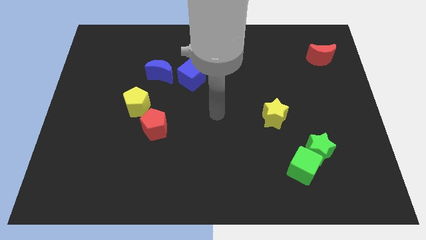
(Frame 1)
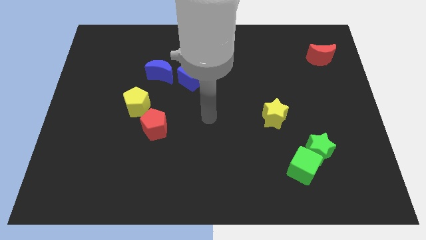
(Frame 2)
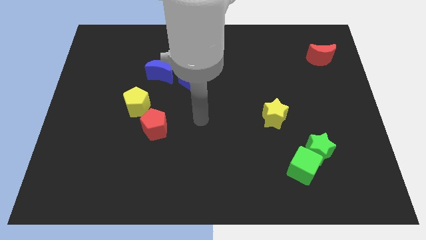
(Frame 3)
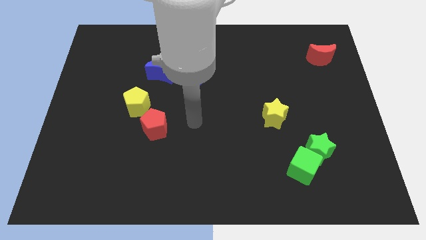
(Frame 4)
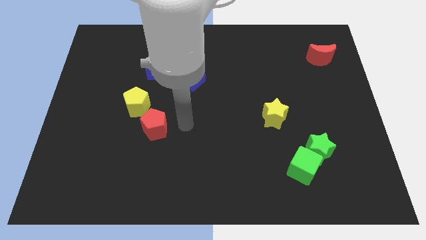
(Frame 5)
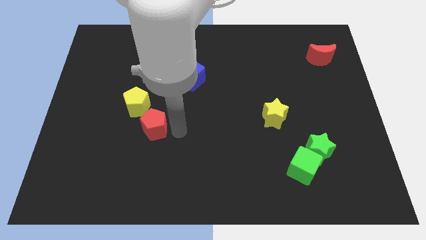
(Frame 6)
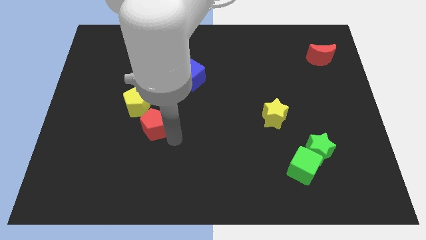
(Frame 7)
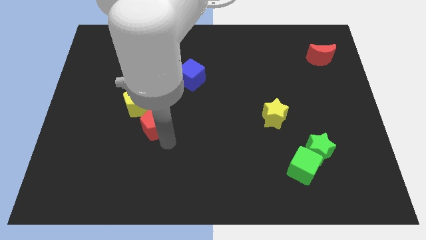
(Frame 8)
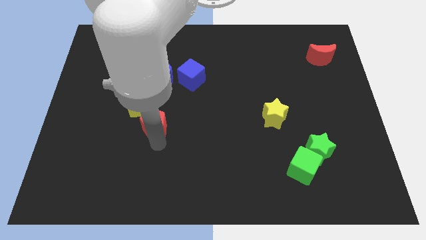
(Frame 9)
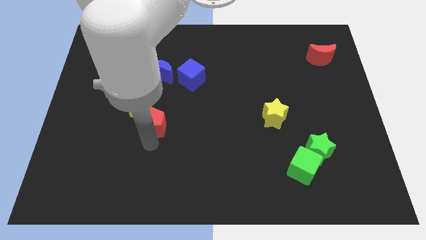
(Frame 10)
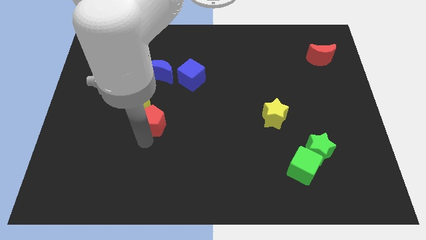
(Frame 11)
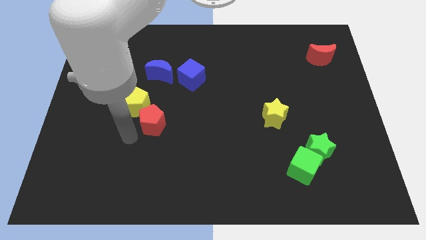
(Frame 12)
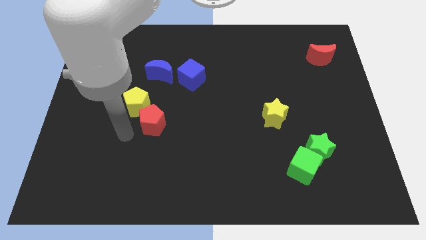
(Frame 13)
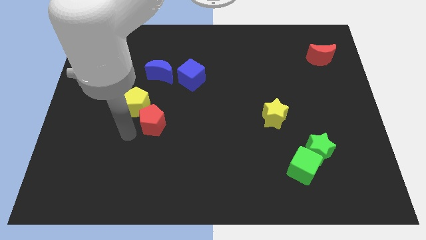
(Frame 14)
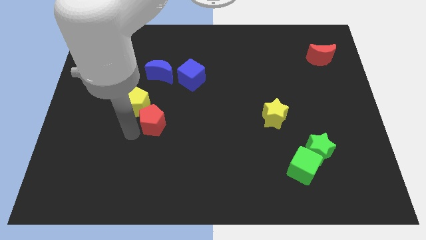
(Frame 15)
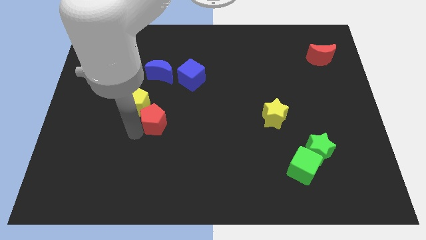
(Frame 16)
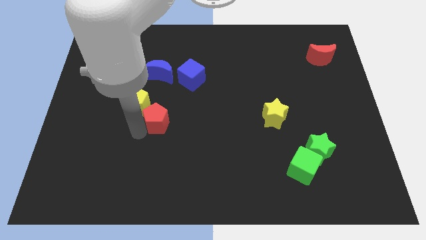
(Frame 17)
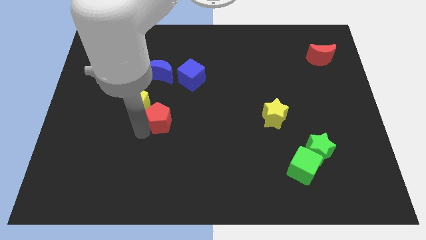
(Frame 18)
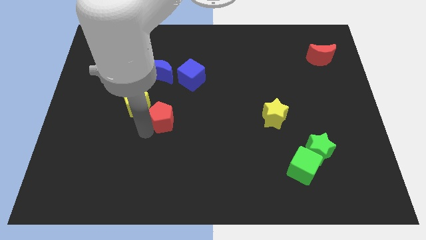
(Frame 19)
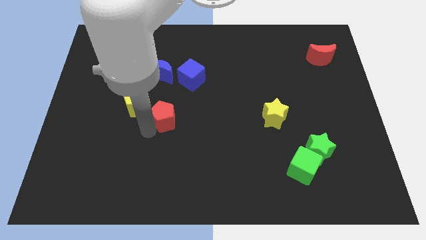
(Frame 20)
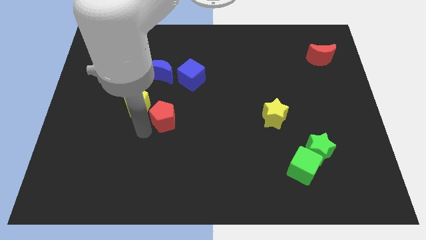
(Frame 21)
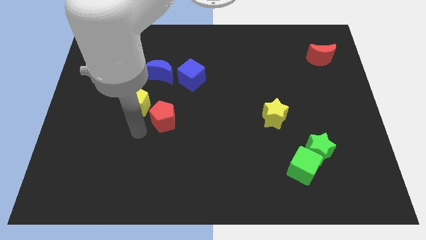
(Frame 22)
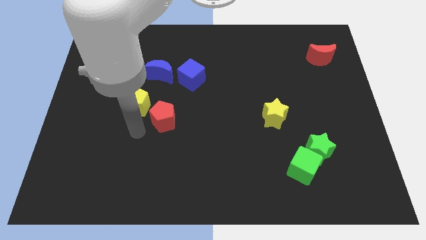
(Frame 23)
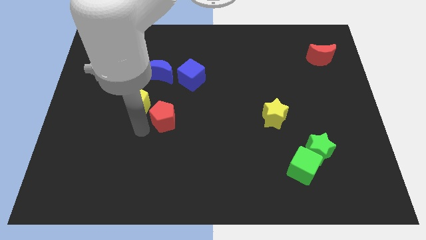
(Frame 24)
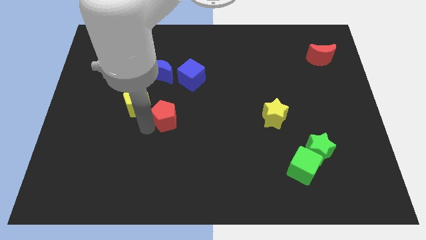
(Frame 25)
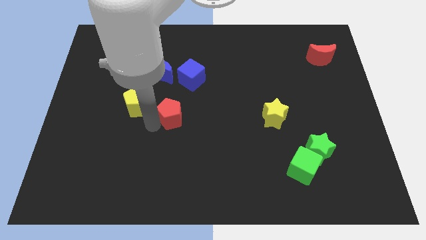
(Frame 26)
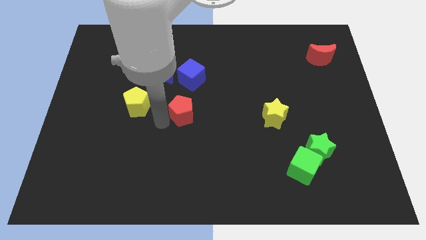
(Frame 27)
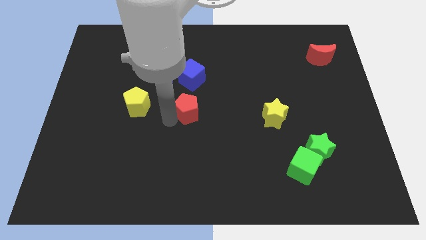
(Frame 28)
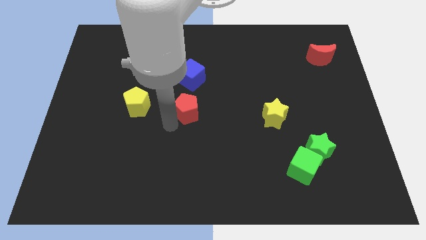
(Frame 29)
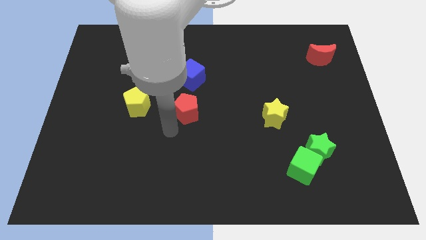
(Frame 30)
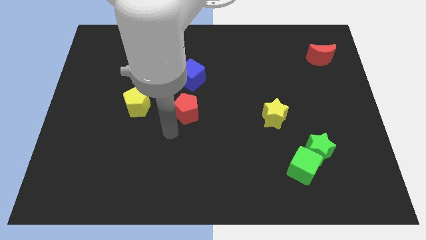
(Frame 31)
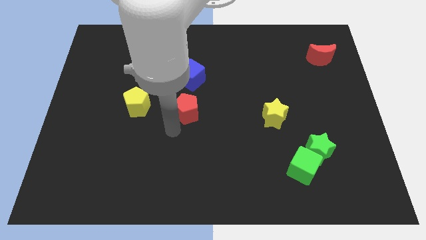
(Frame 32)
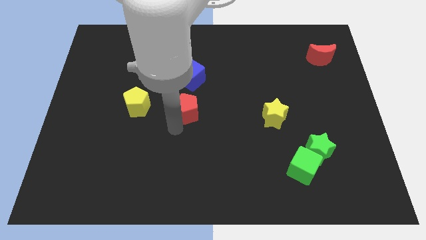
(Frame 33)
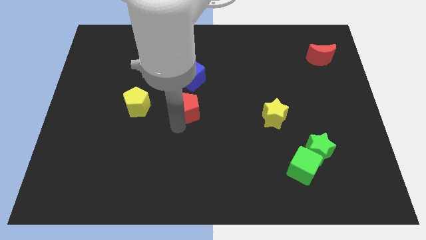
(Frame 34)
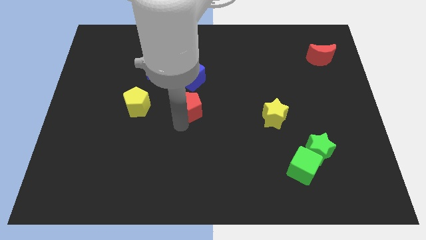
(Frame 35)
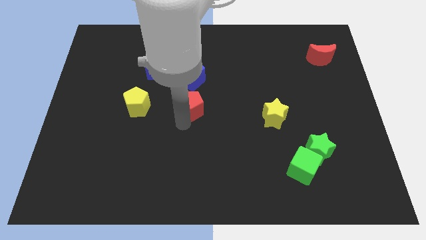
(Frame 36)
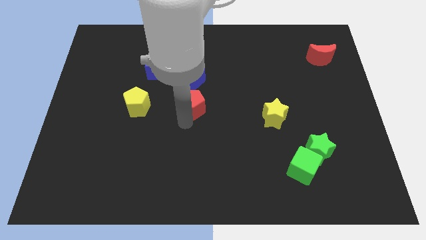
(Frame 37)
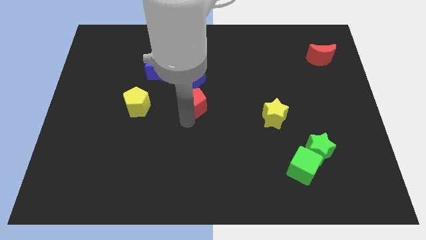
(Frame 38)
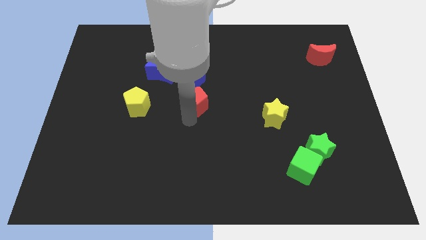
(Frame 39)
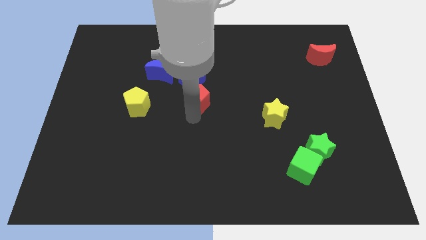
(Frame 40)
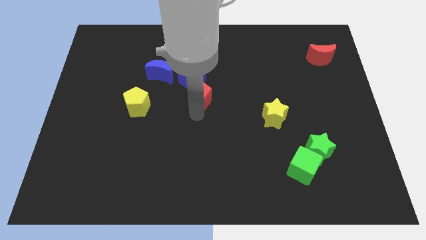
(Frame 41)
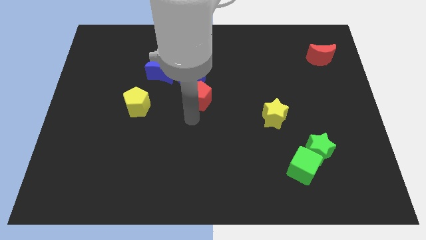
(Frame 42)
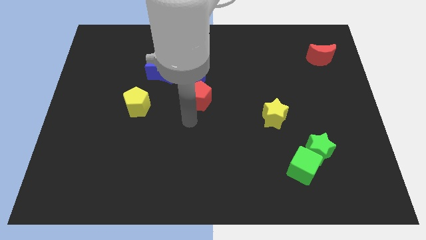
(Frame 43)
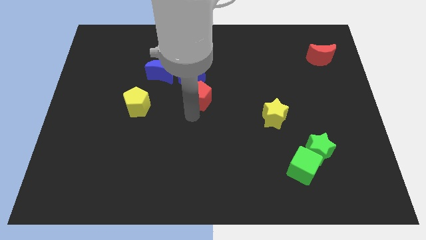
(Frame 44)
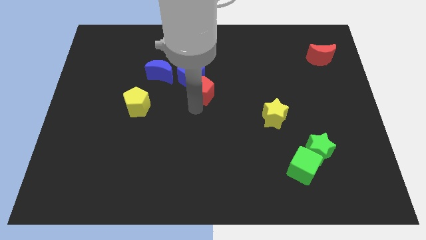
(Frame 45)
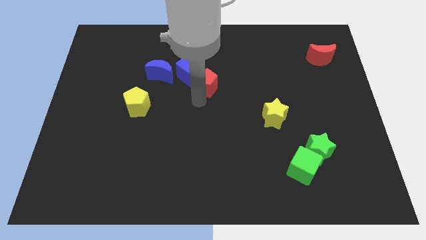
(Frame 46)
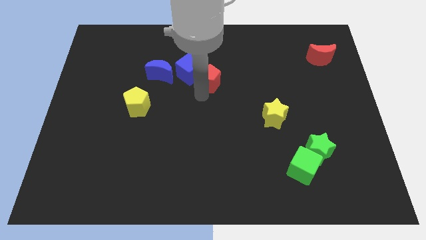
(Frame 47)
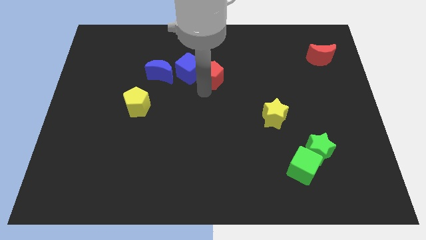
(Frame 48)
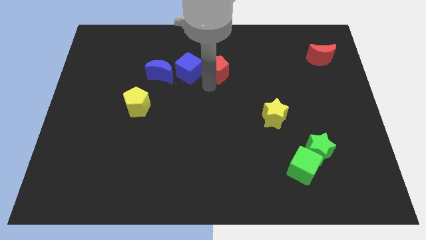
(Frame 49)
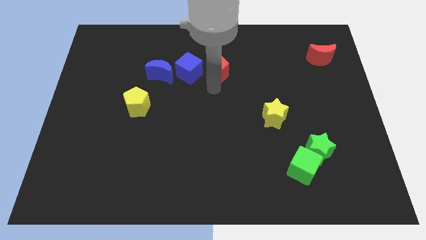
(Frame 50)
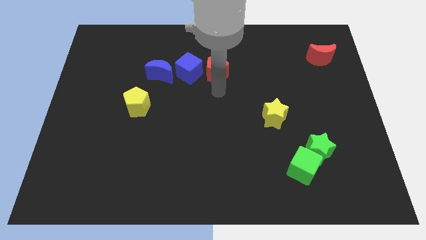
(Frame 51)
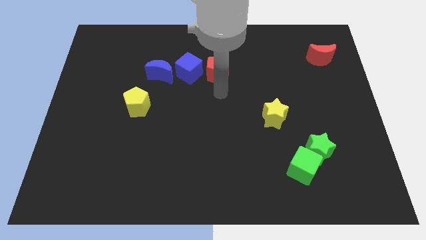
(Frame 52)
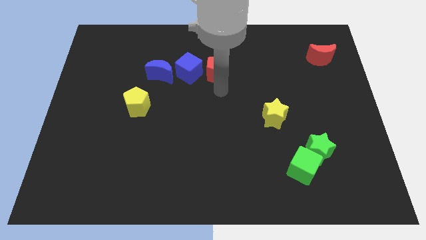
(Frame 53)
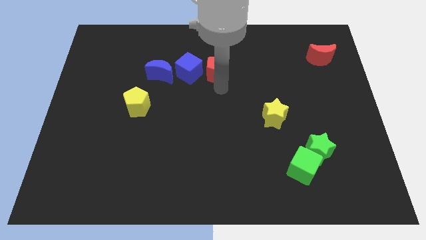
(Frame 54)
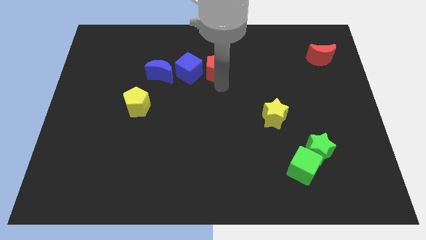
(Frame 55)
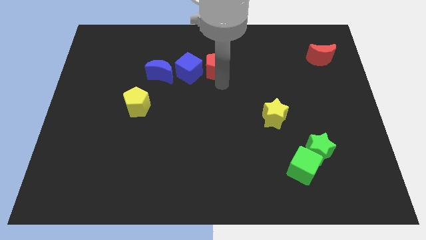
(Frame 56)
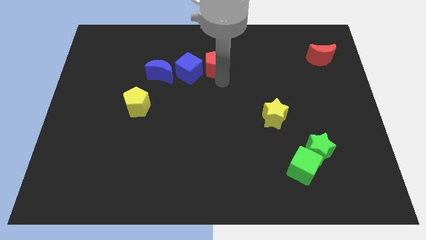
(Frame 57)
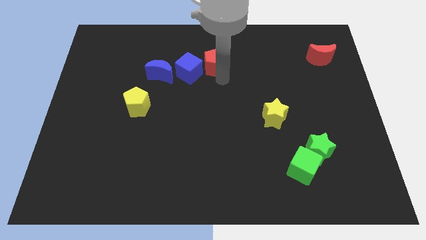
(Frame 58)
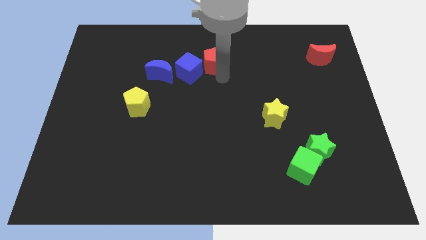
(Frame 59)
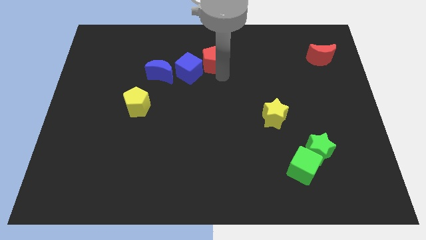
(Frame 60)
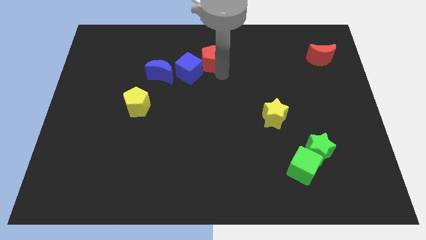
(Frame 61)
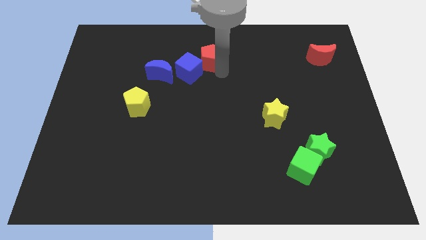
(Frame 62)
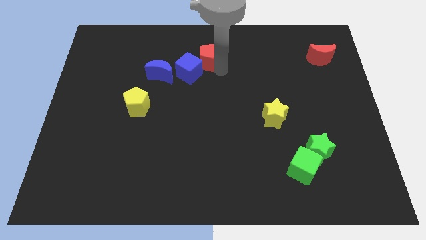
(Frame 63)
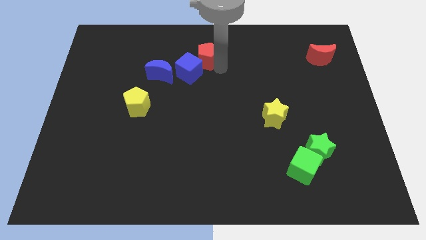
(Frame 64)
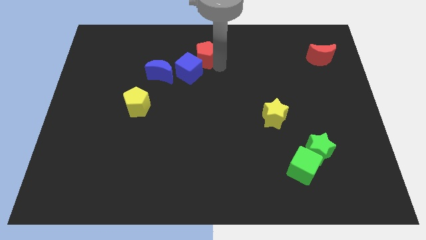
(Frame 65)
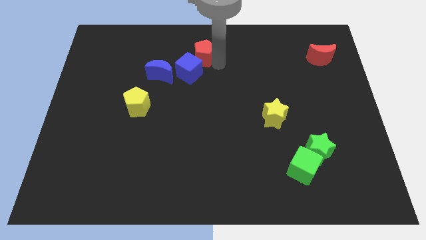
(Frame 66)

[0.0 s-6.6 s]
put the red pentagon to the top

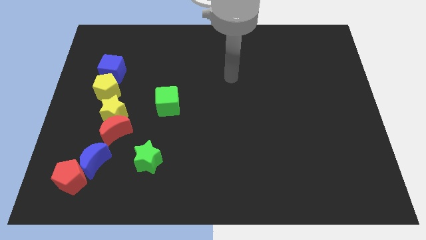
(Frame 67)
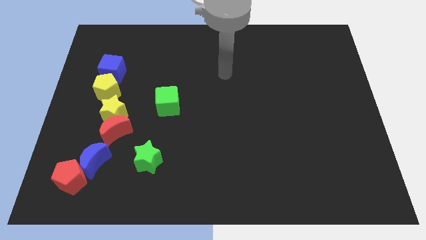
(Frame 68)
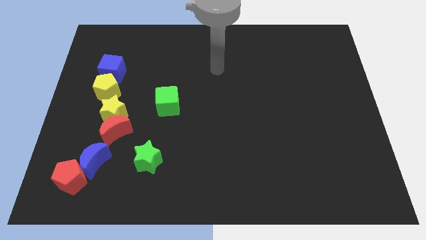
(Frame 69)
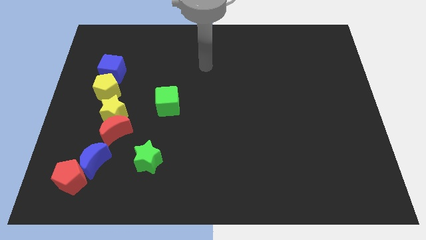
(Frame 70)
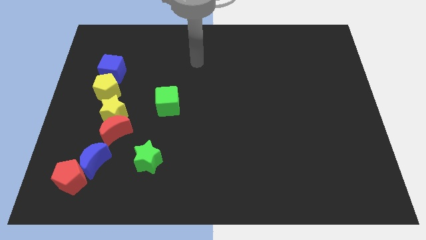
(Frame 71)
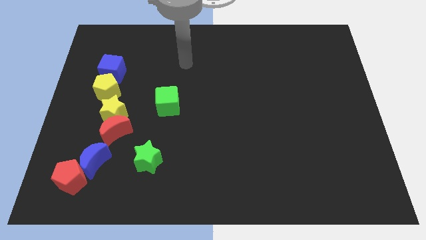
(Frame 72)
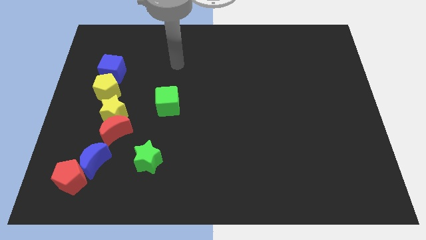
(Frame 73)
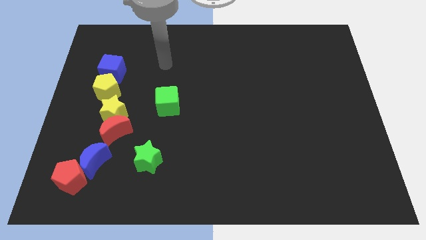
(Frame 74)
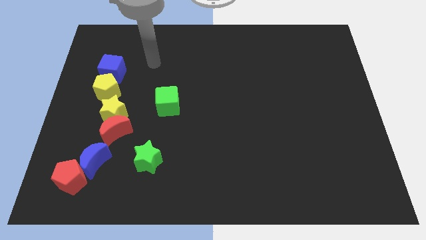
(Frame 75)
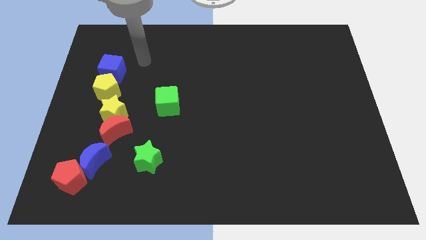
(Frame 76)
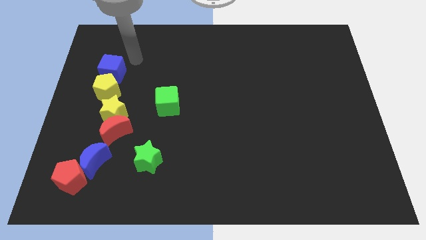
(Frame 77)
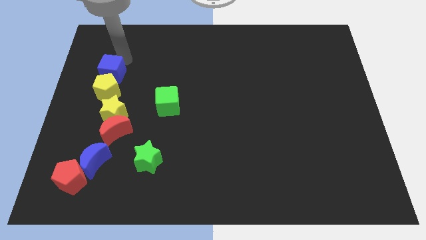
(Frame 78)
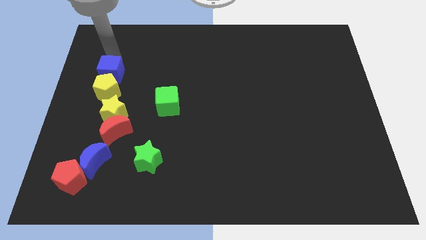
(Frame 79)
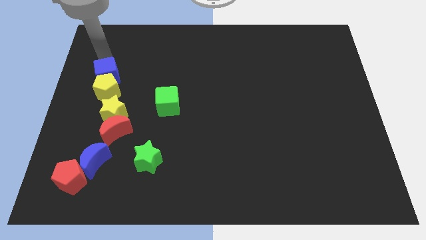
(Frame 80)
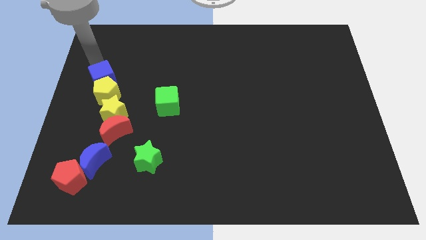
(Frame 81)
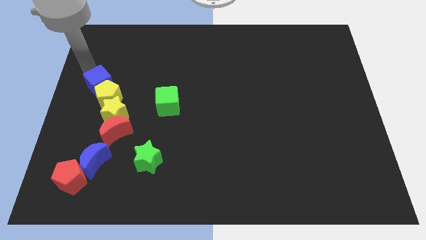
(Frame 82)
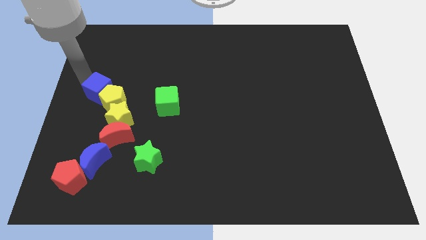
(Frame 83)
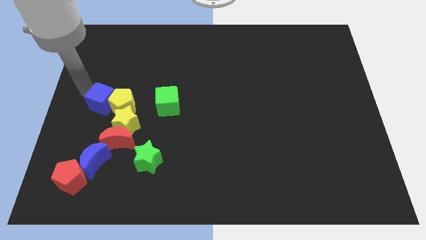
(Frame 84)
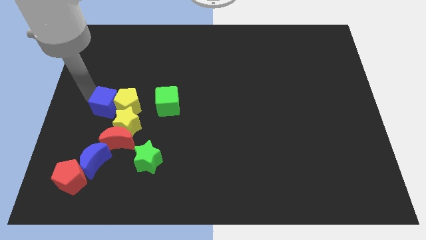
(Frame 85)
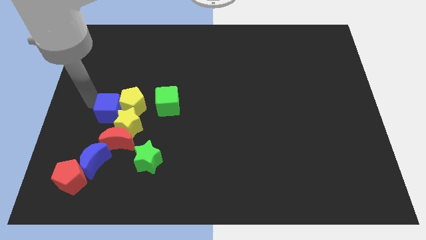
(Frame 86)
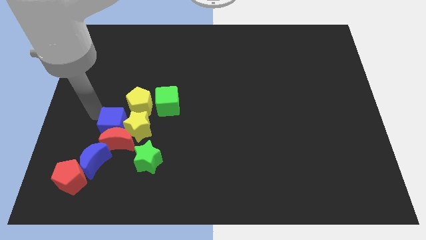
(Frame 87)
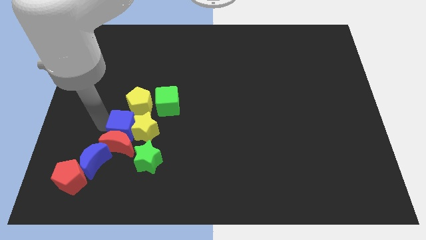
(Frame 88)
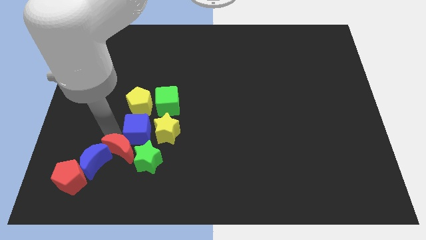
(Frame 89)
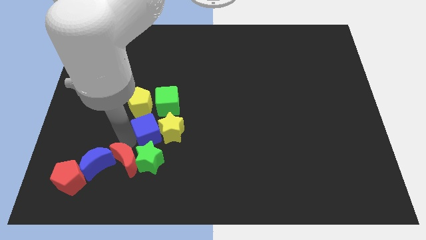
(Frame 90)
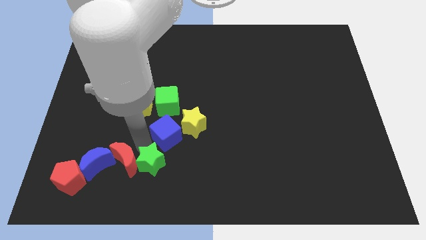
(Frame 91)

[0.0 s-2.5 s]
put the yellow star to the middle
